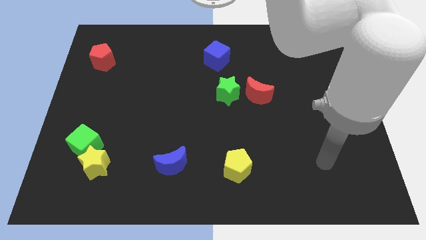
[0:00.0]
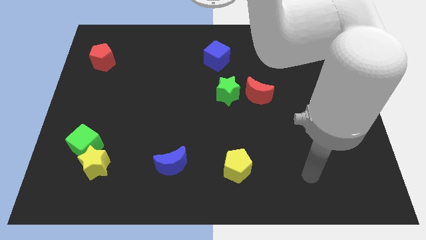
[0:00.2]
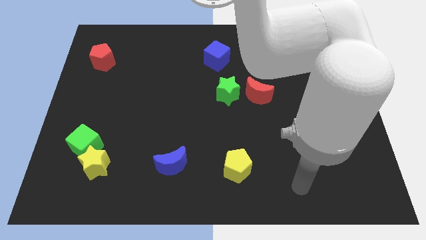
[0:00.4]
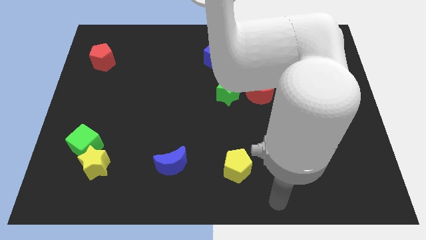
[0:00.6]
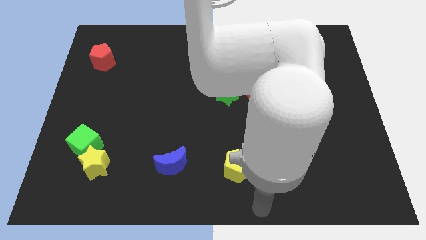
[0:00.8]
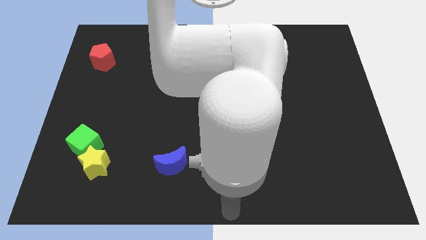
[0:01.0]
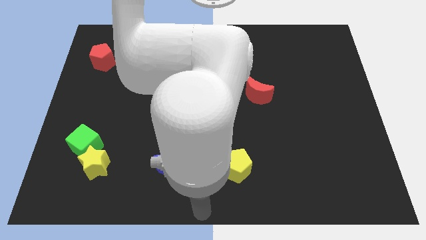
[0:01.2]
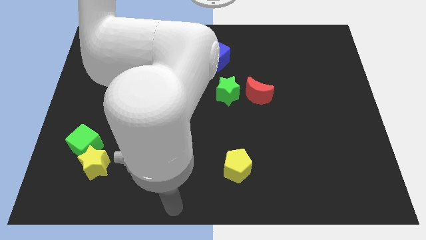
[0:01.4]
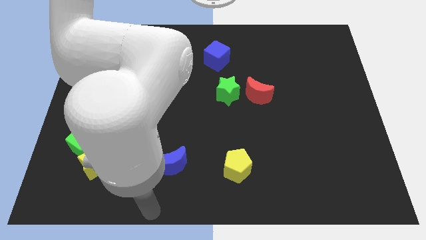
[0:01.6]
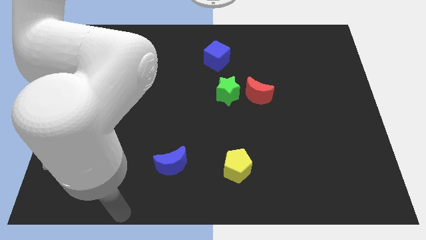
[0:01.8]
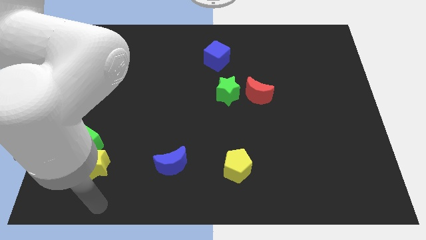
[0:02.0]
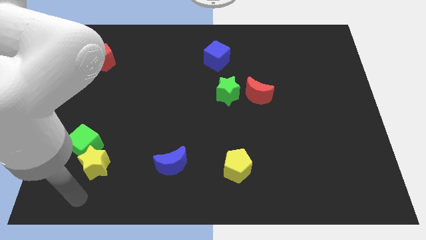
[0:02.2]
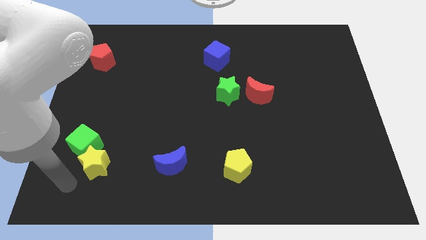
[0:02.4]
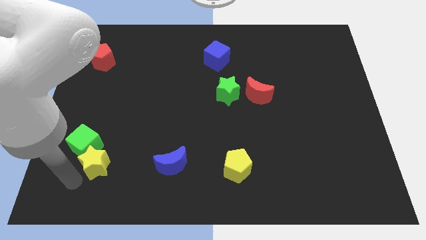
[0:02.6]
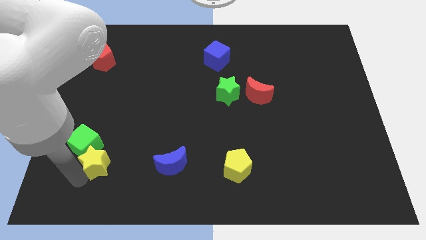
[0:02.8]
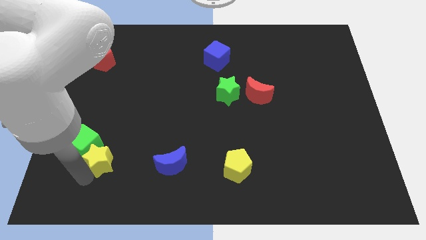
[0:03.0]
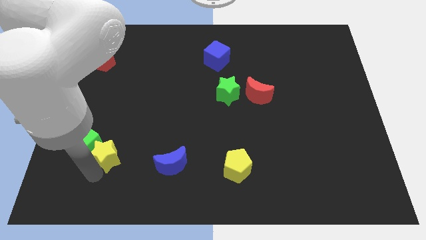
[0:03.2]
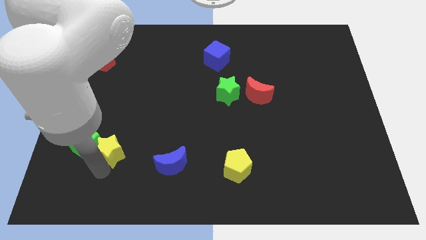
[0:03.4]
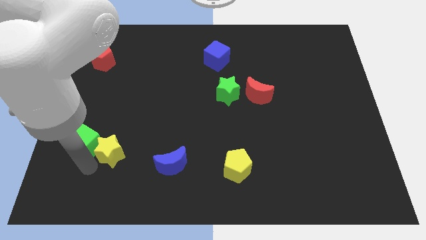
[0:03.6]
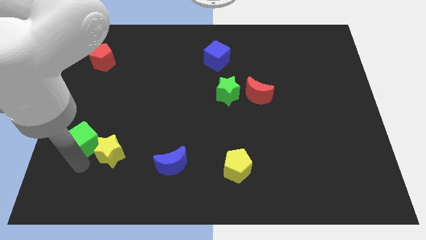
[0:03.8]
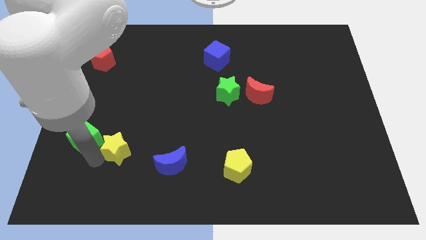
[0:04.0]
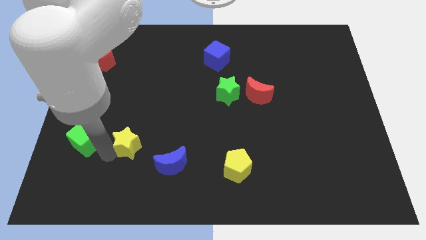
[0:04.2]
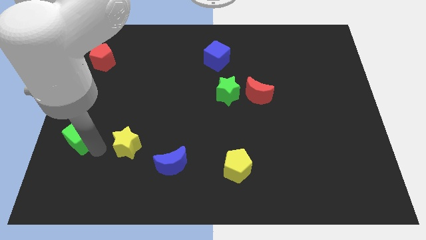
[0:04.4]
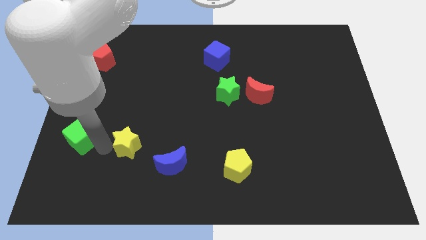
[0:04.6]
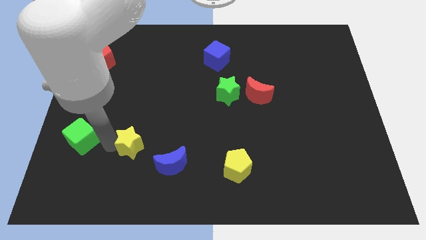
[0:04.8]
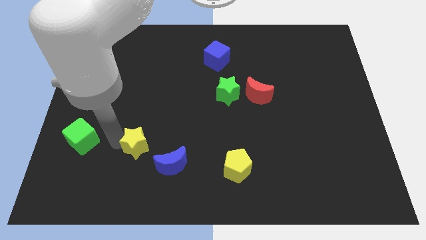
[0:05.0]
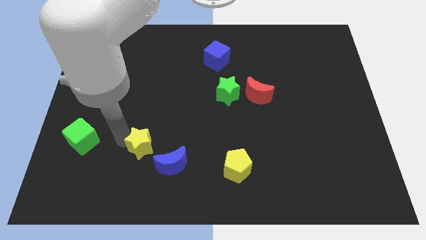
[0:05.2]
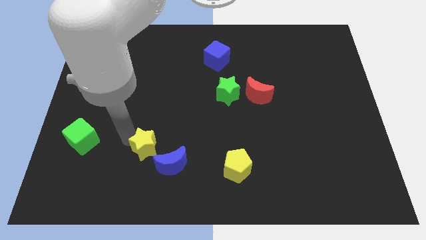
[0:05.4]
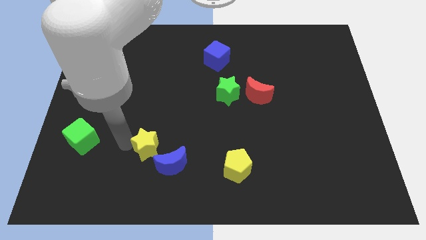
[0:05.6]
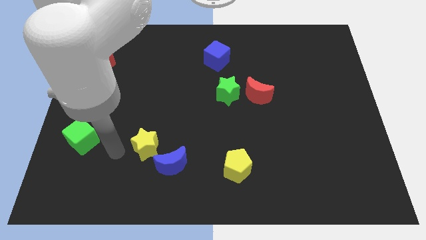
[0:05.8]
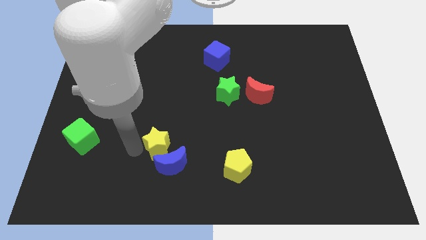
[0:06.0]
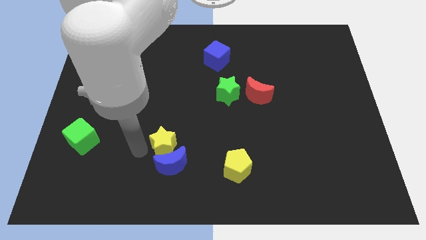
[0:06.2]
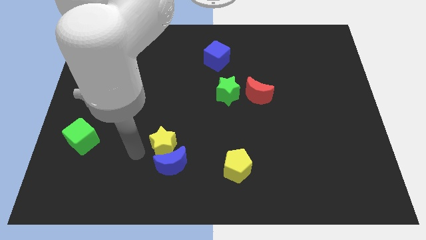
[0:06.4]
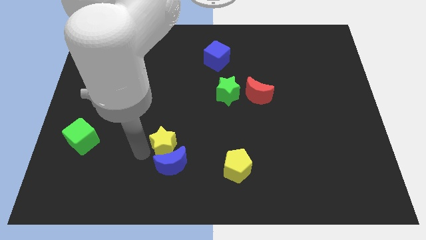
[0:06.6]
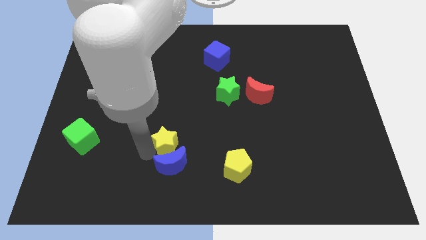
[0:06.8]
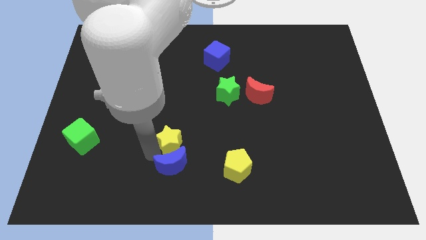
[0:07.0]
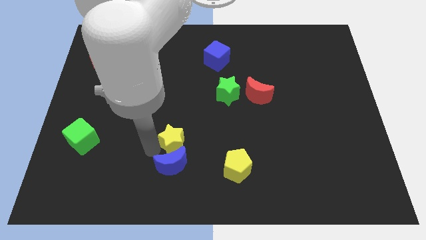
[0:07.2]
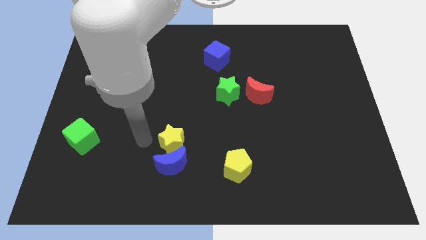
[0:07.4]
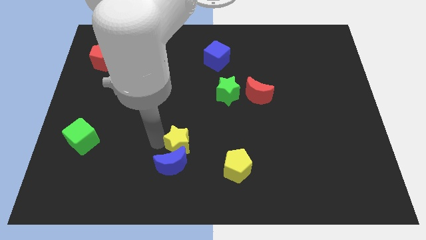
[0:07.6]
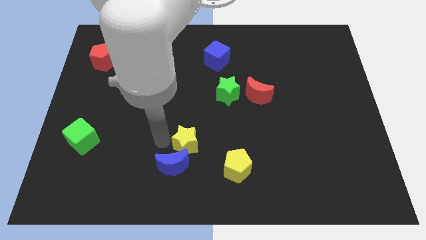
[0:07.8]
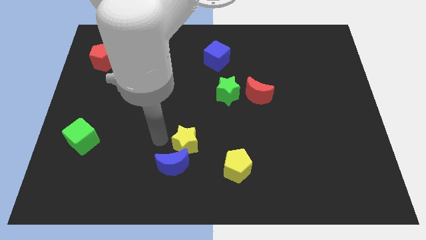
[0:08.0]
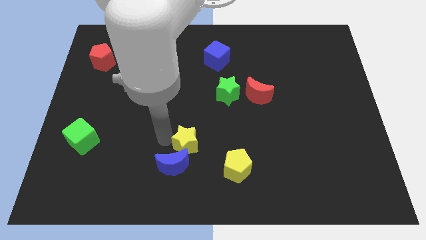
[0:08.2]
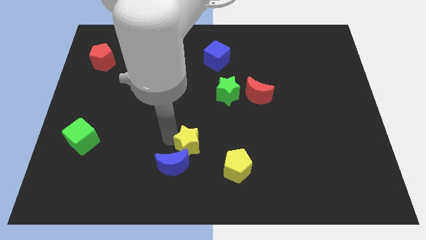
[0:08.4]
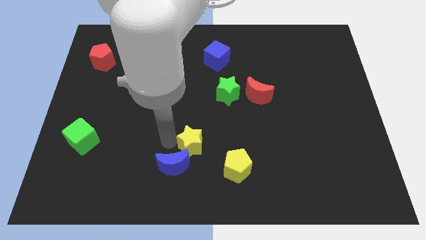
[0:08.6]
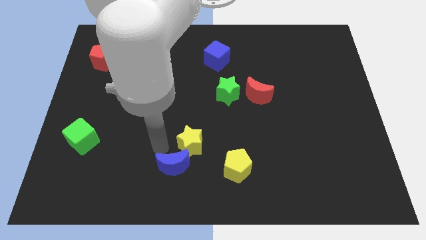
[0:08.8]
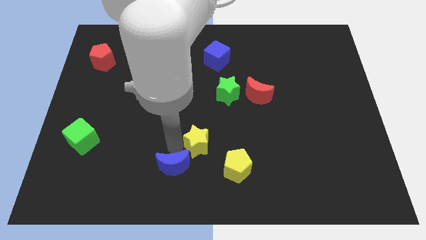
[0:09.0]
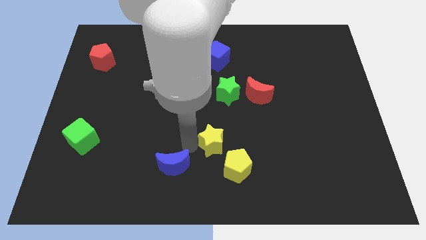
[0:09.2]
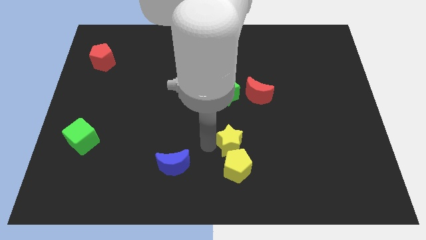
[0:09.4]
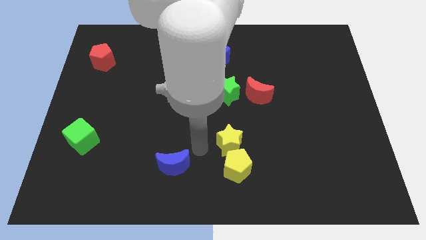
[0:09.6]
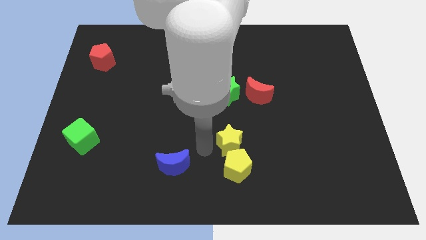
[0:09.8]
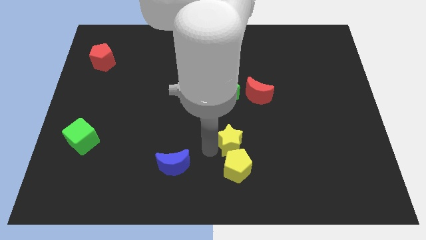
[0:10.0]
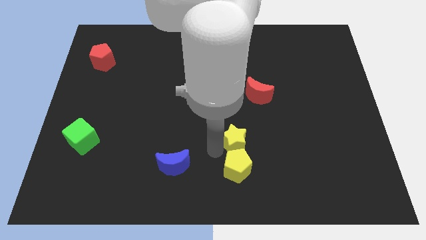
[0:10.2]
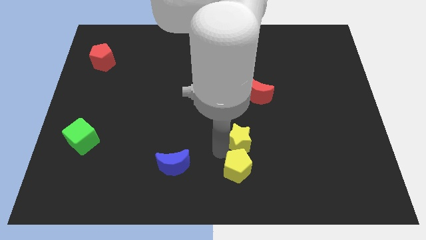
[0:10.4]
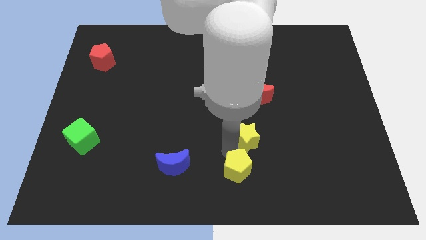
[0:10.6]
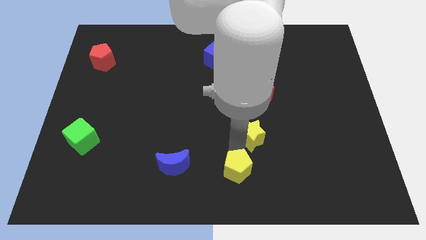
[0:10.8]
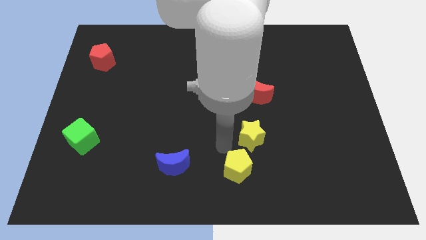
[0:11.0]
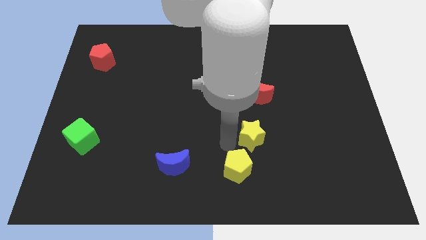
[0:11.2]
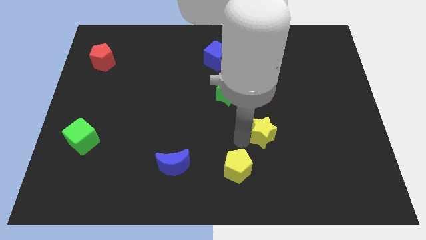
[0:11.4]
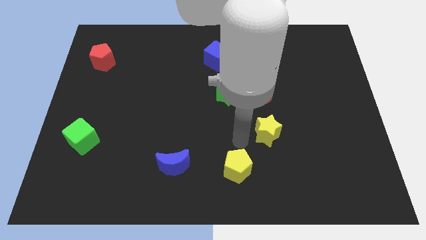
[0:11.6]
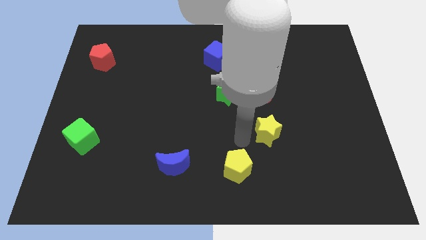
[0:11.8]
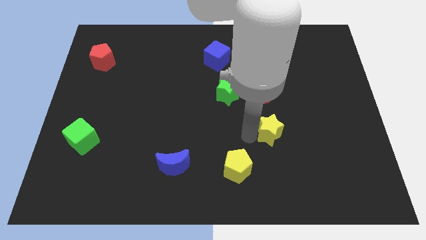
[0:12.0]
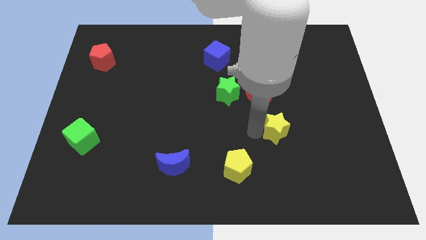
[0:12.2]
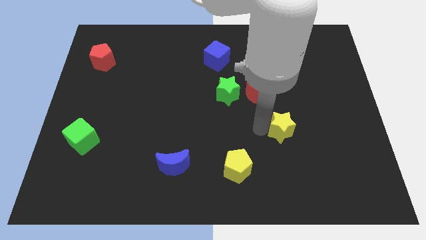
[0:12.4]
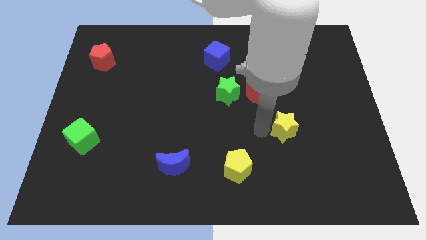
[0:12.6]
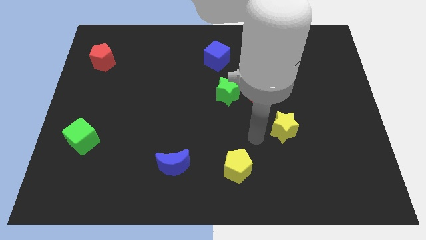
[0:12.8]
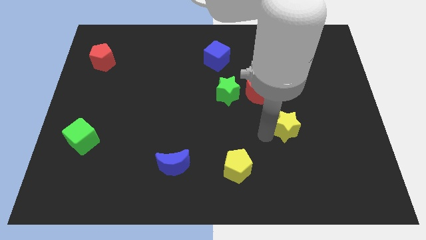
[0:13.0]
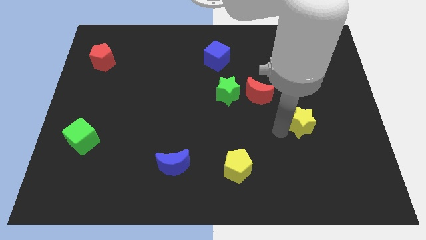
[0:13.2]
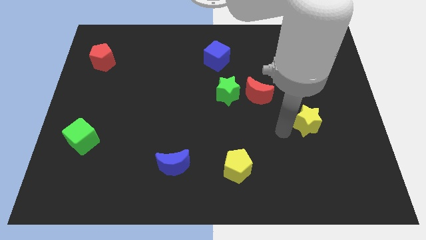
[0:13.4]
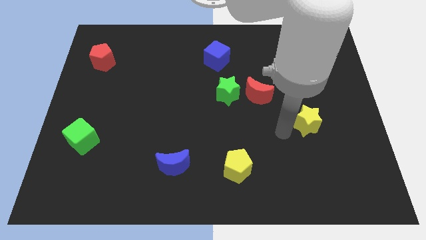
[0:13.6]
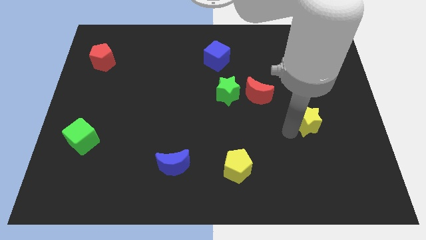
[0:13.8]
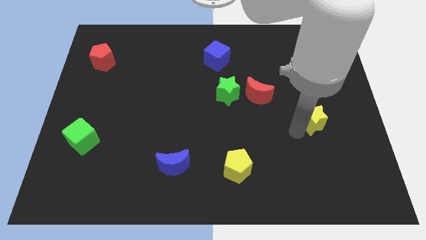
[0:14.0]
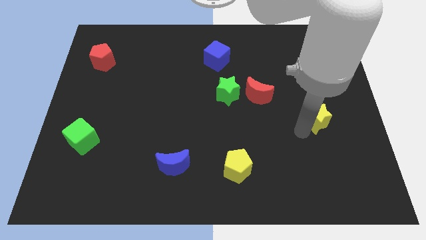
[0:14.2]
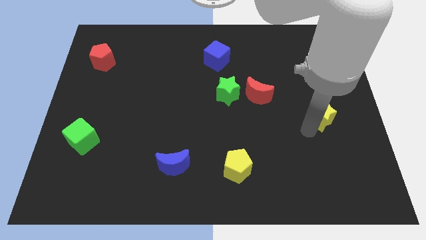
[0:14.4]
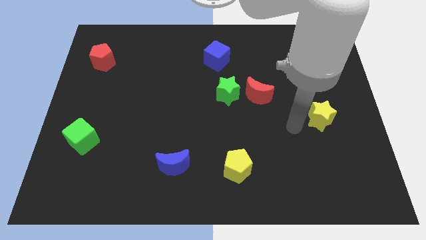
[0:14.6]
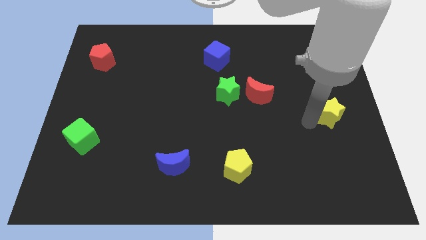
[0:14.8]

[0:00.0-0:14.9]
push the yellow star to the right side
